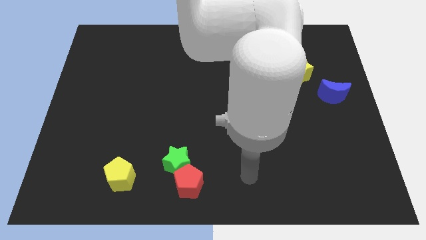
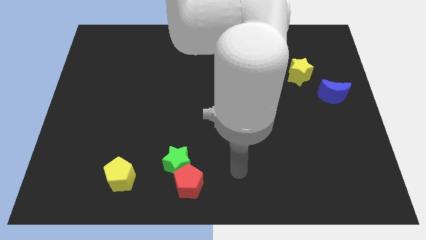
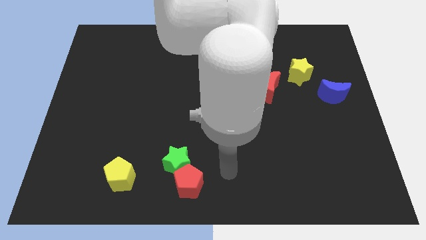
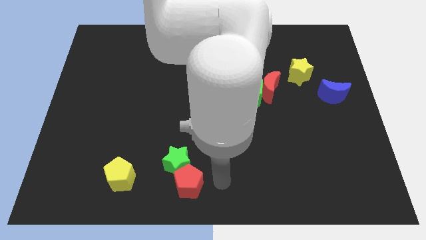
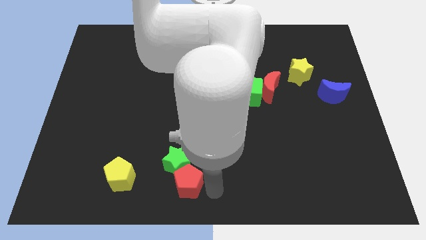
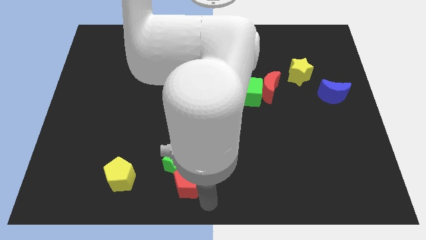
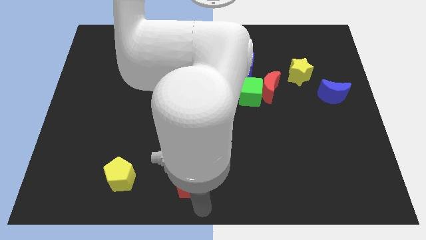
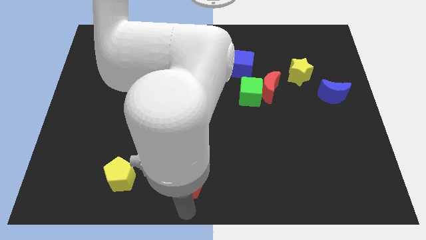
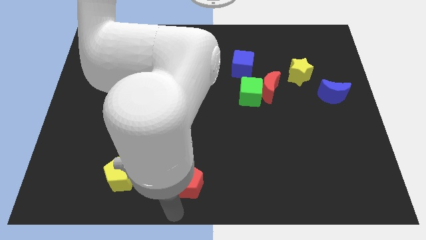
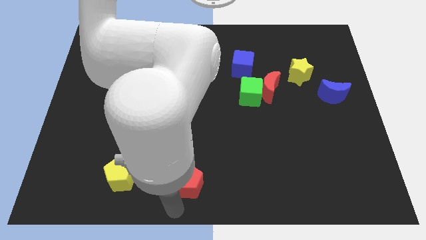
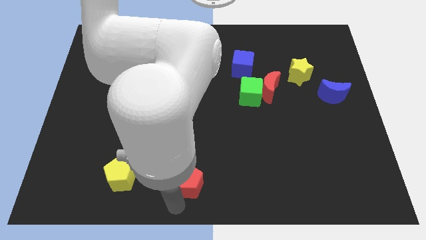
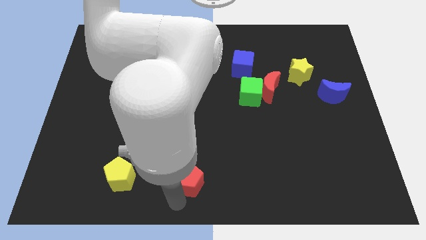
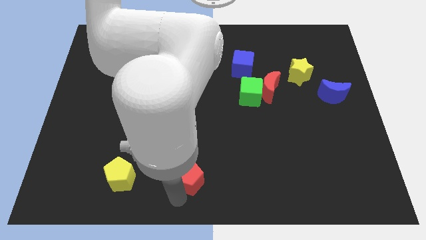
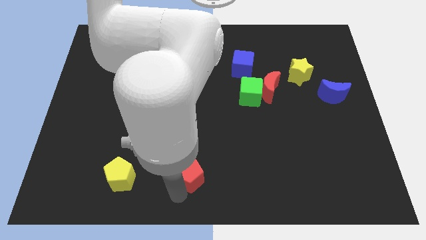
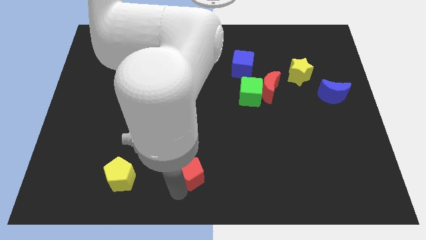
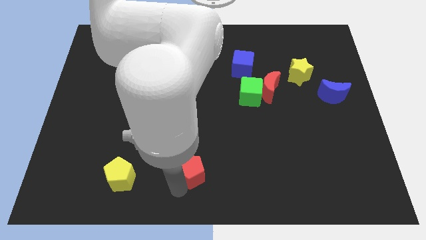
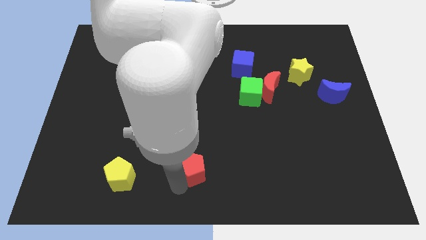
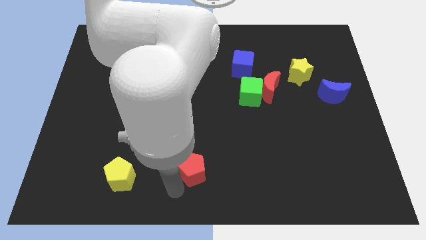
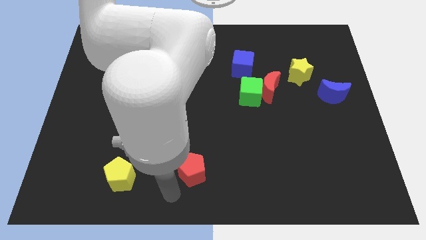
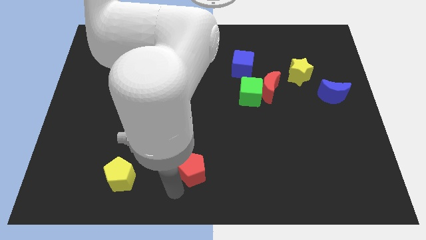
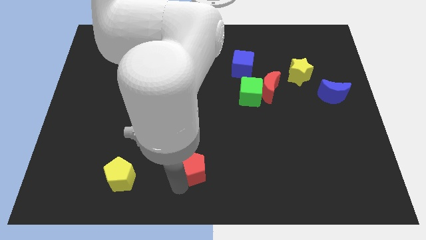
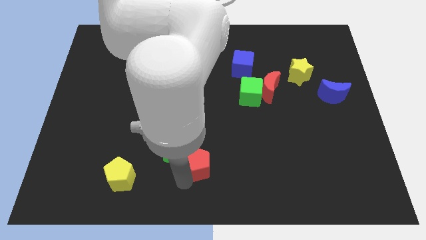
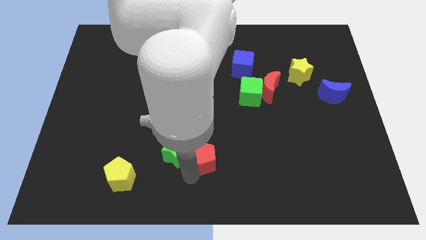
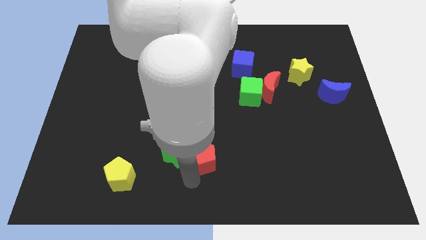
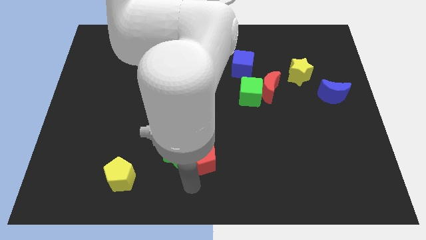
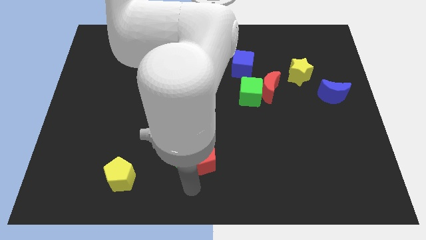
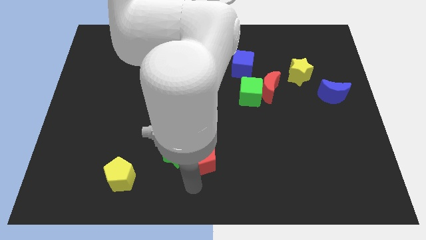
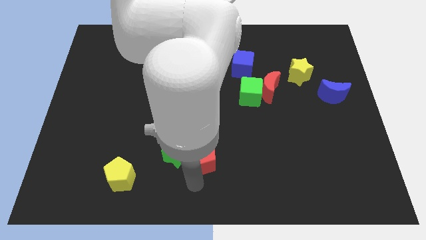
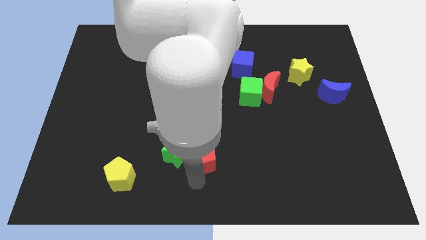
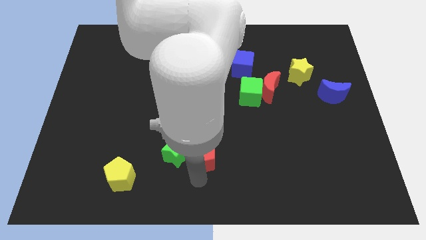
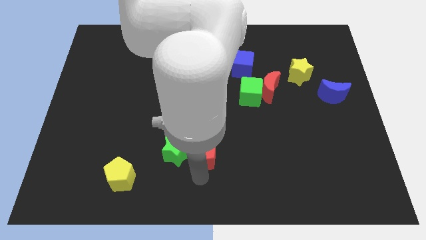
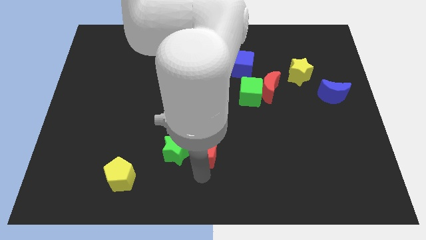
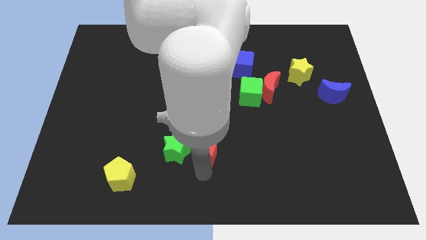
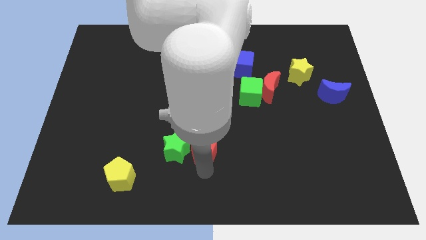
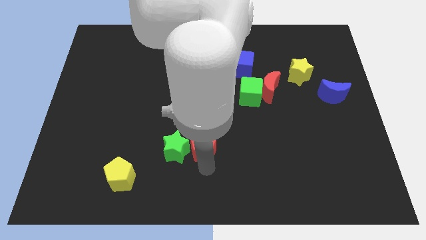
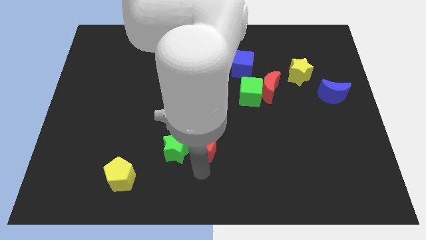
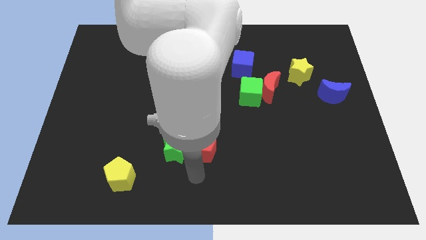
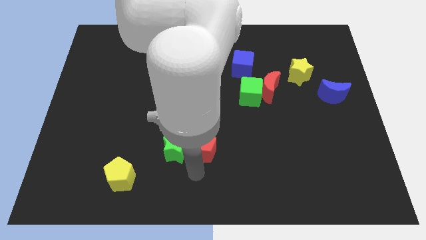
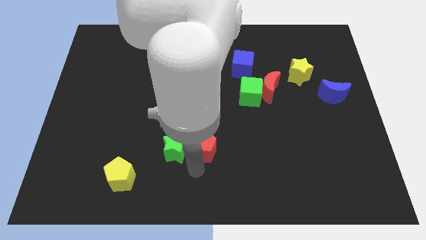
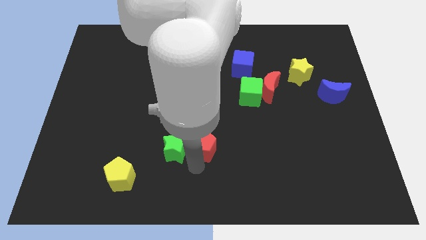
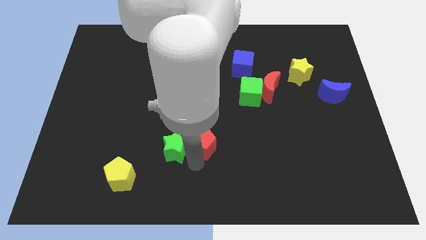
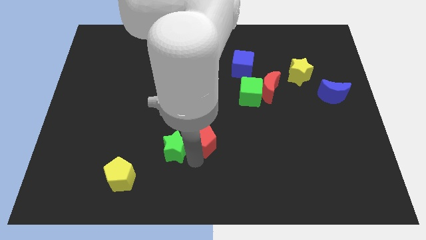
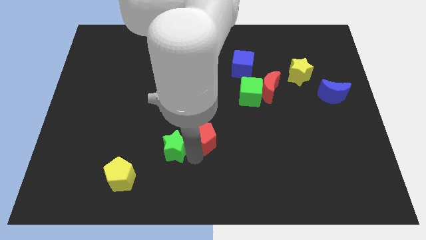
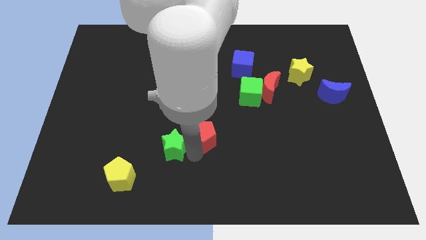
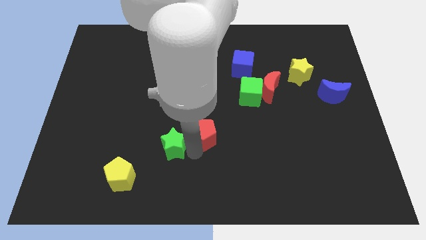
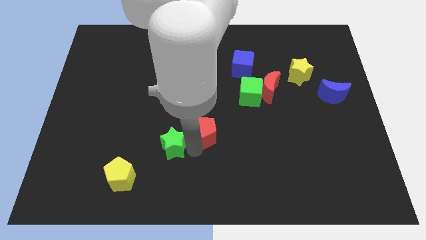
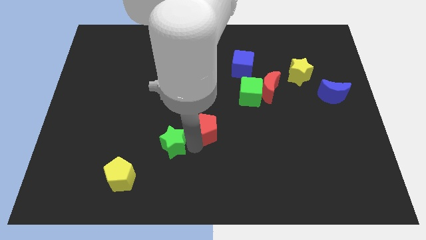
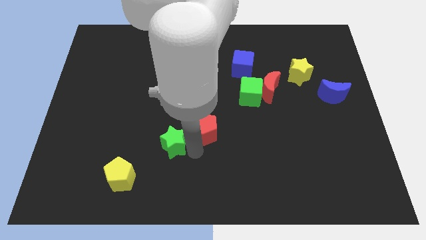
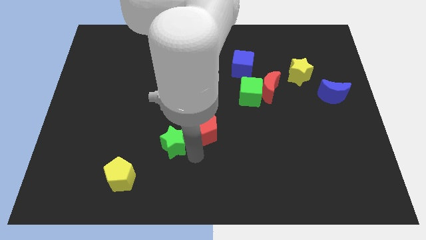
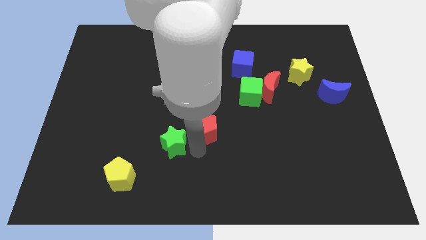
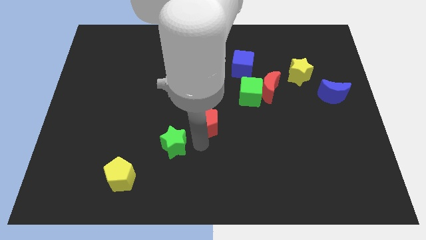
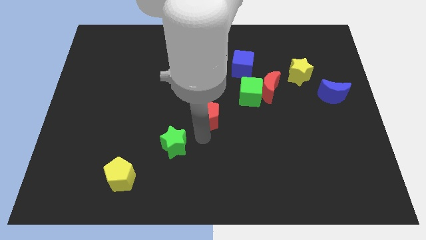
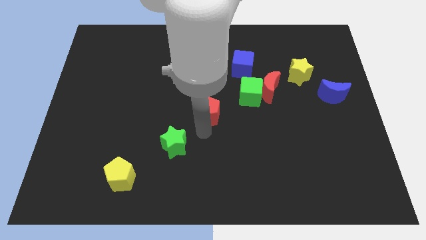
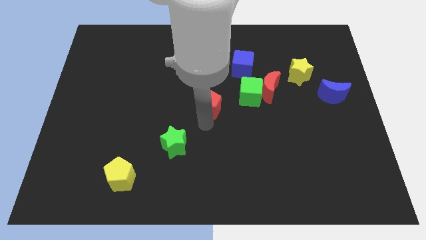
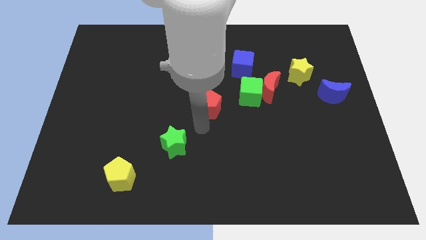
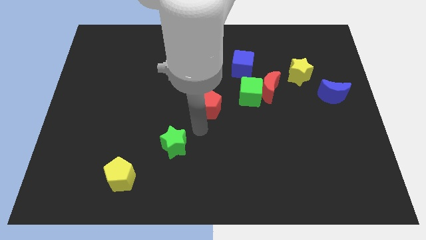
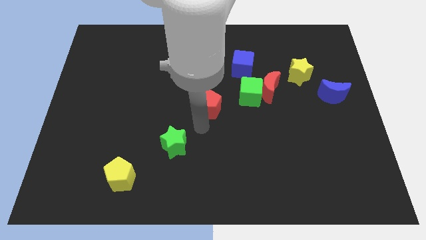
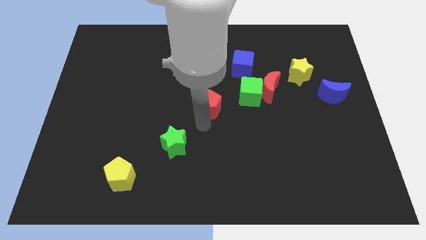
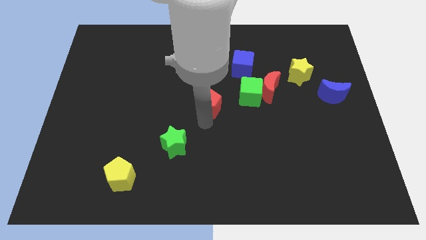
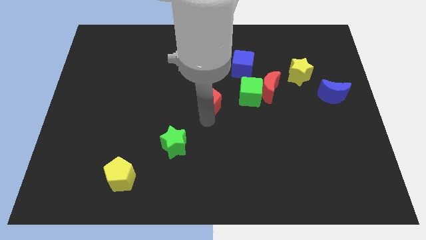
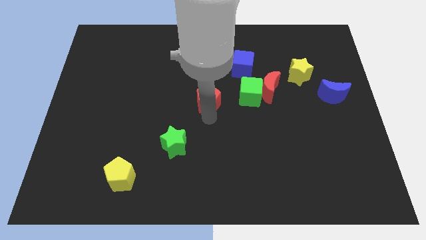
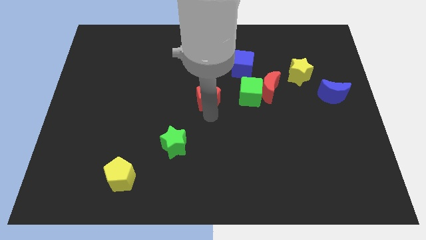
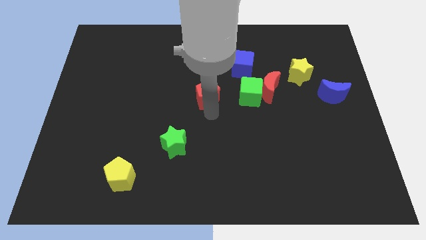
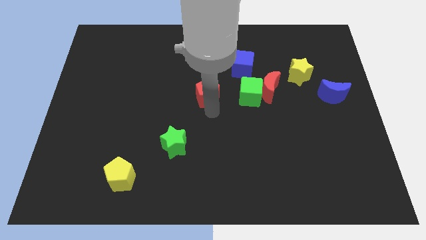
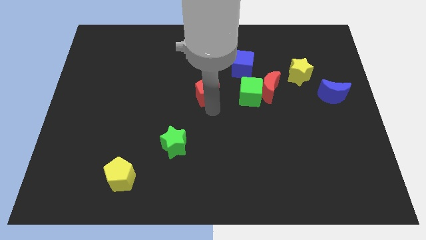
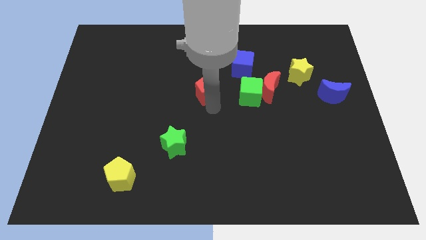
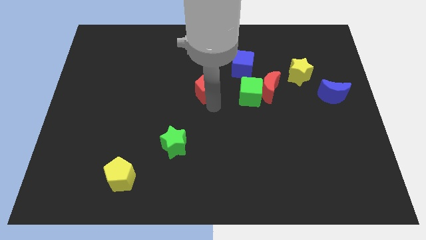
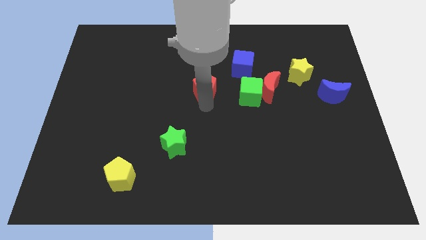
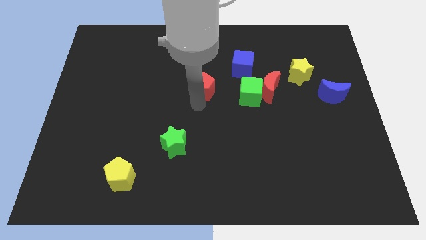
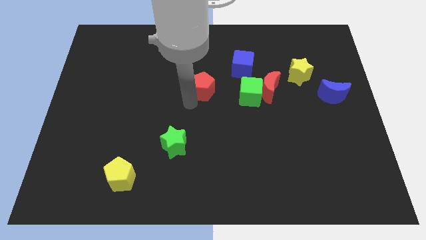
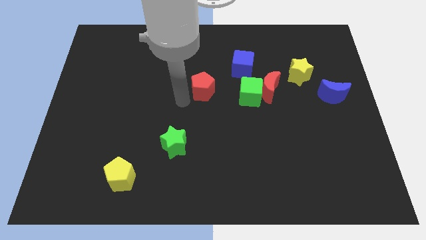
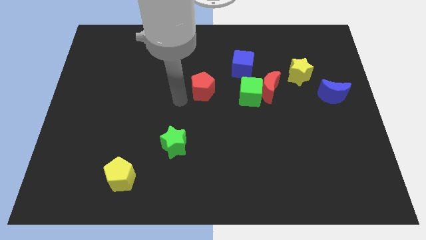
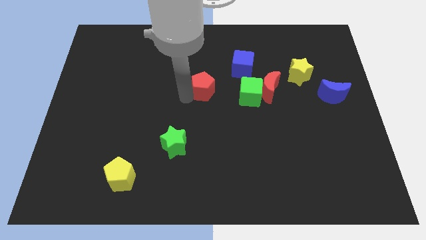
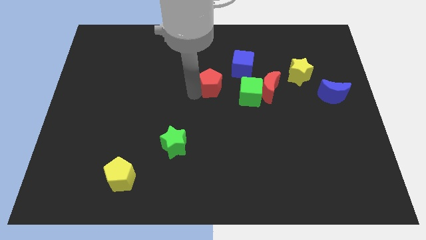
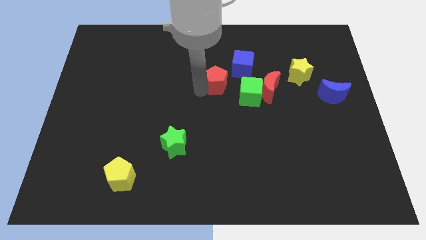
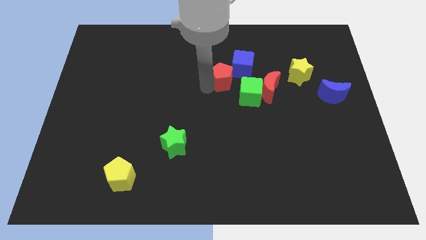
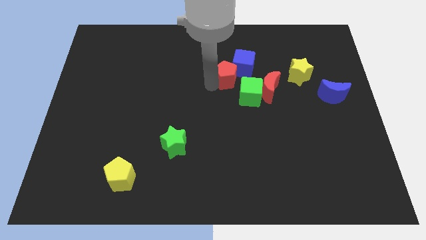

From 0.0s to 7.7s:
push the red pentagon towards the blue cube
